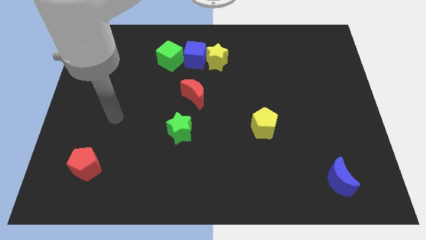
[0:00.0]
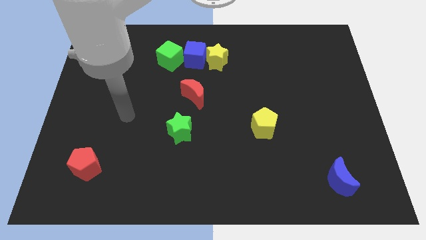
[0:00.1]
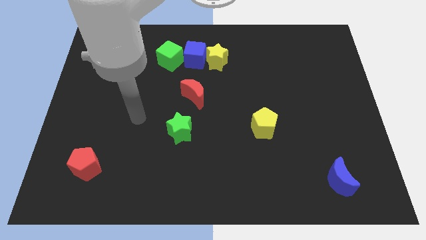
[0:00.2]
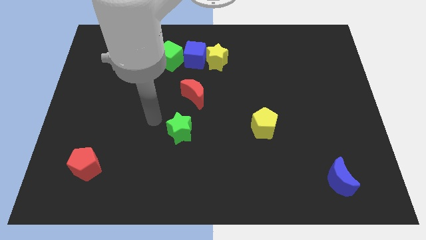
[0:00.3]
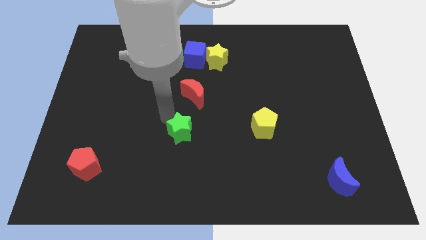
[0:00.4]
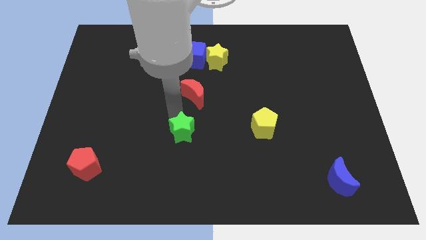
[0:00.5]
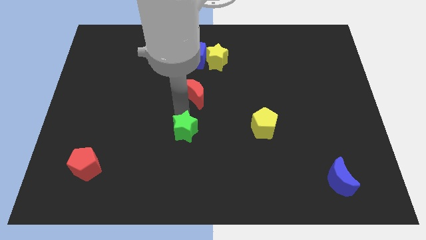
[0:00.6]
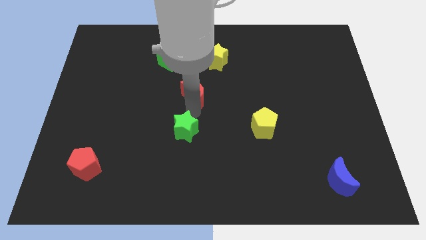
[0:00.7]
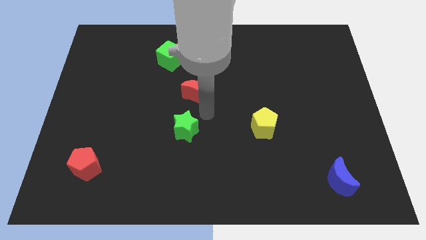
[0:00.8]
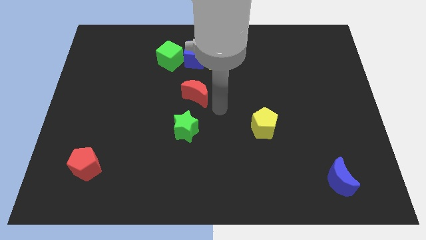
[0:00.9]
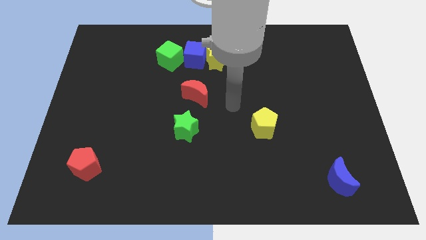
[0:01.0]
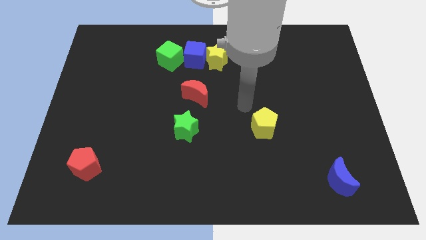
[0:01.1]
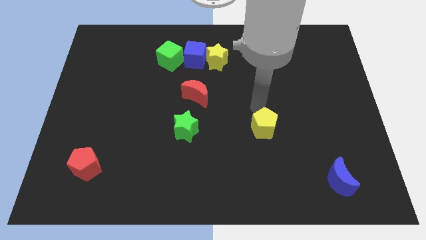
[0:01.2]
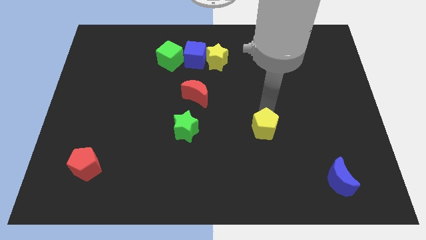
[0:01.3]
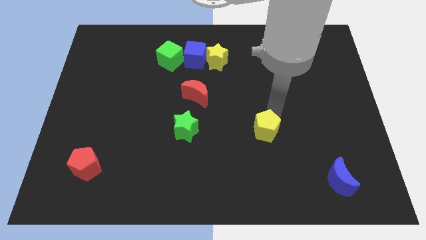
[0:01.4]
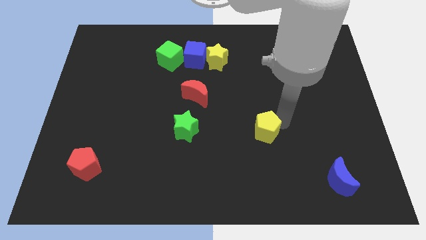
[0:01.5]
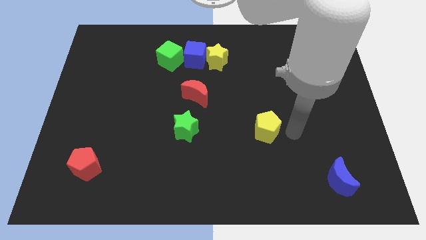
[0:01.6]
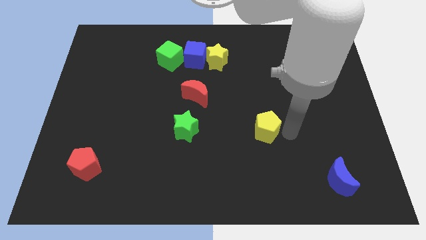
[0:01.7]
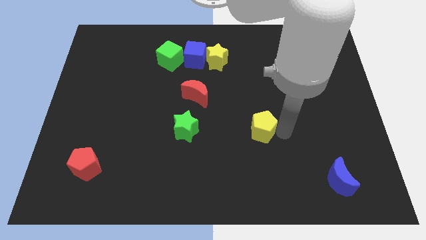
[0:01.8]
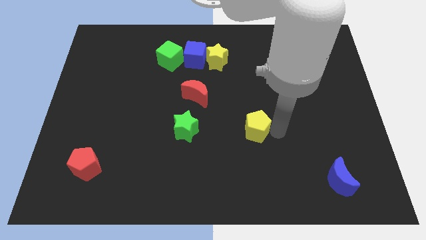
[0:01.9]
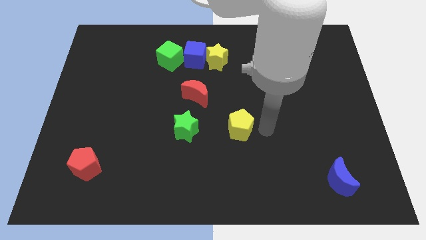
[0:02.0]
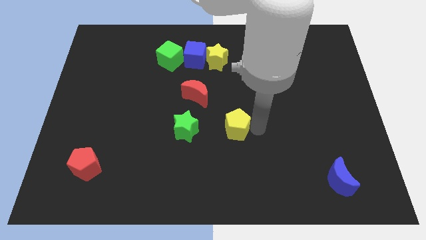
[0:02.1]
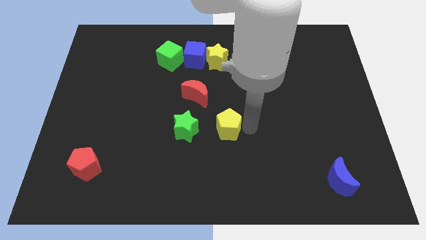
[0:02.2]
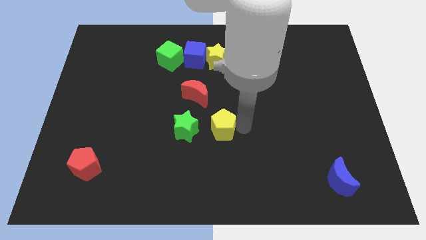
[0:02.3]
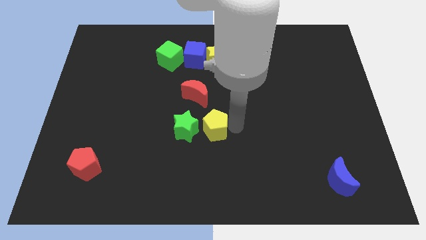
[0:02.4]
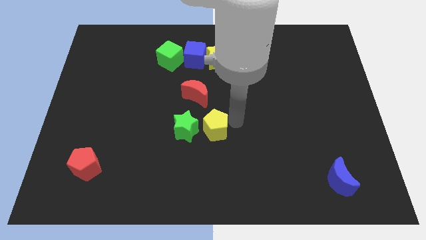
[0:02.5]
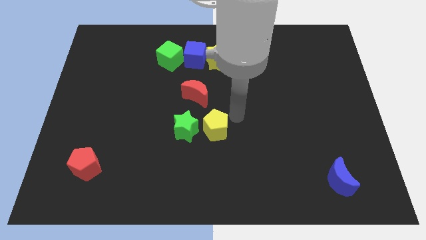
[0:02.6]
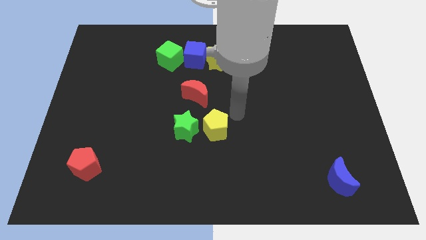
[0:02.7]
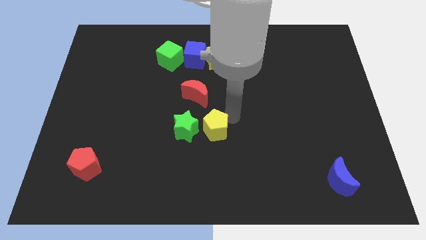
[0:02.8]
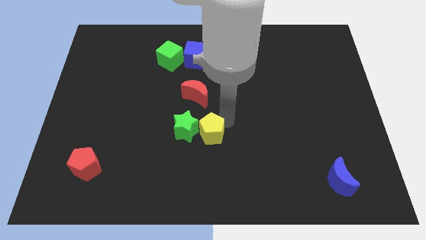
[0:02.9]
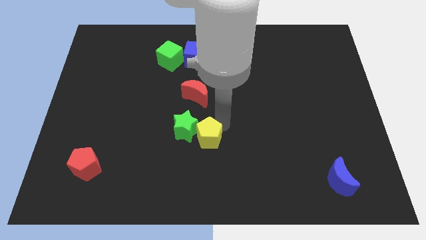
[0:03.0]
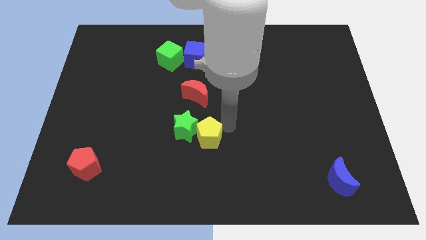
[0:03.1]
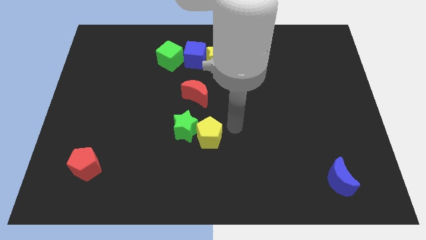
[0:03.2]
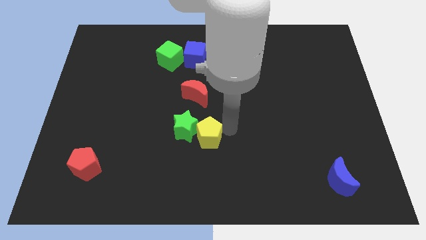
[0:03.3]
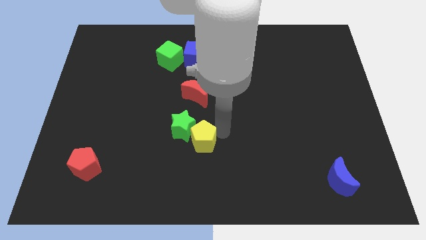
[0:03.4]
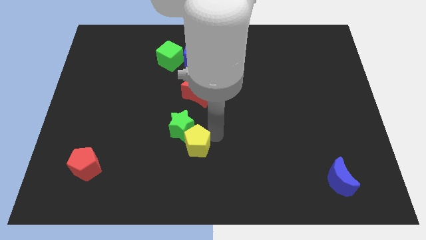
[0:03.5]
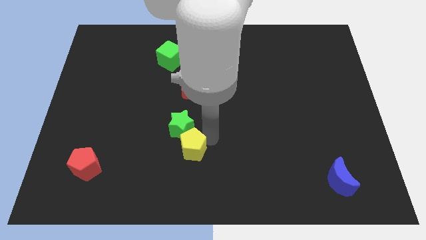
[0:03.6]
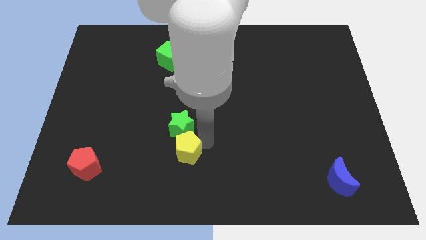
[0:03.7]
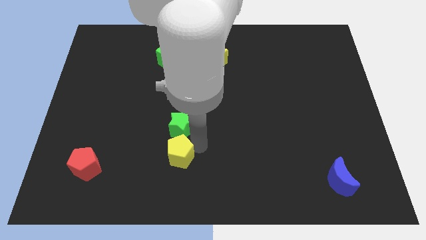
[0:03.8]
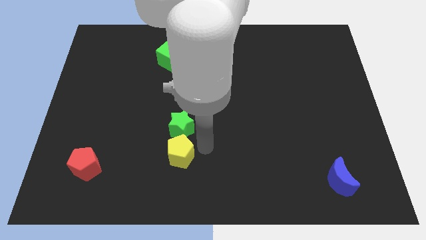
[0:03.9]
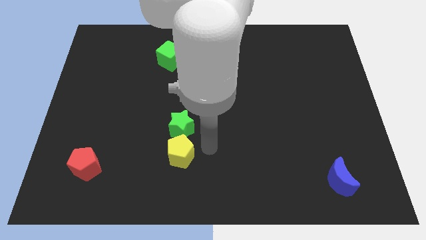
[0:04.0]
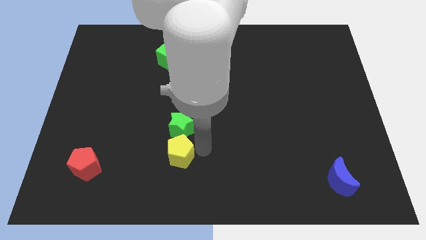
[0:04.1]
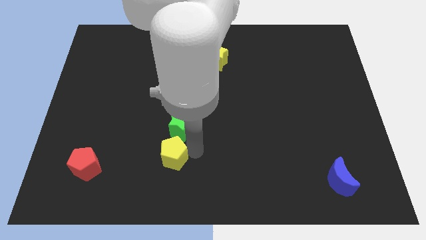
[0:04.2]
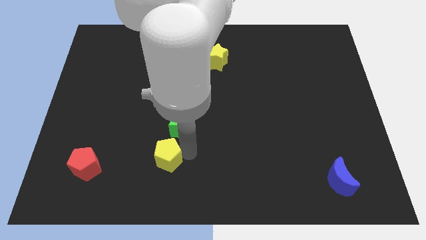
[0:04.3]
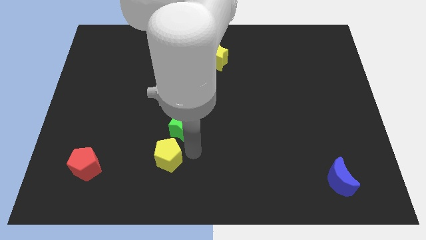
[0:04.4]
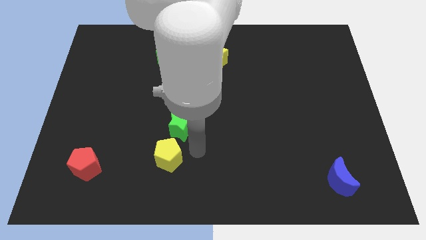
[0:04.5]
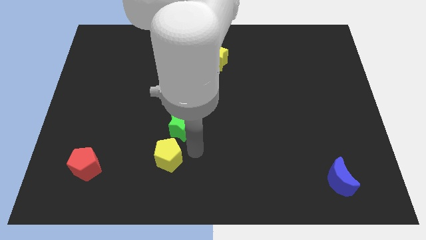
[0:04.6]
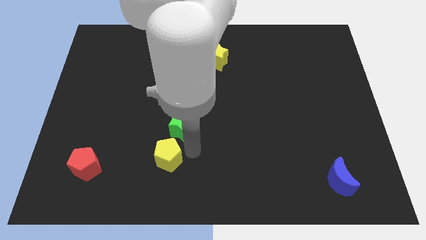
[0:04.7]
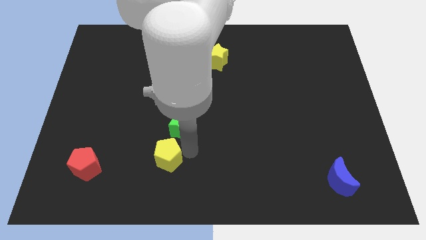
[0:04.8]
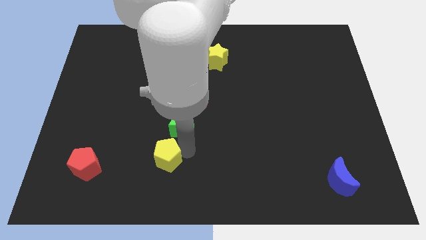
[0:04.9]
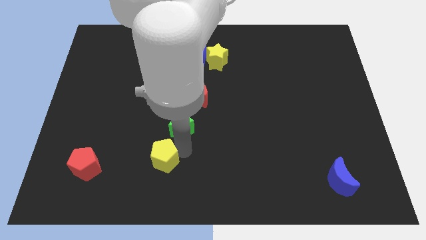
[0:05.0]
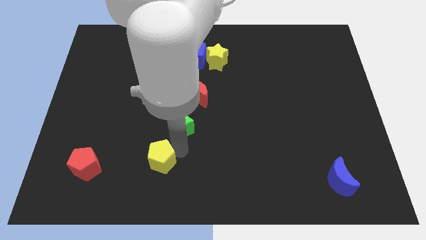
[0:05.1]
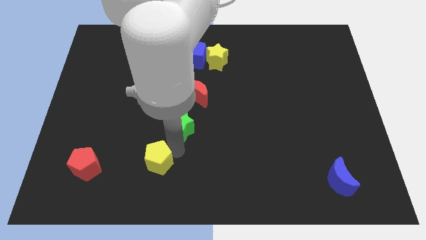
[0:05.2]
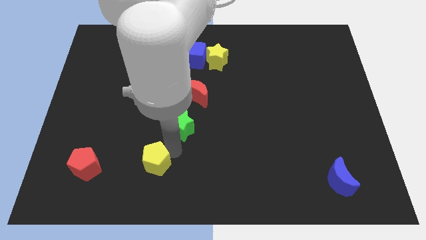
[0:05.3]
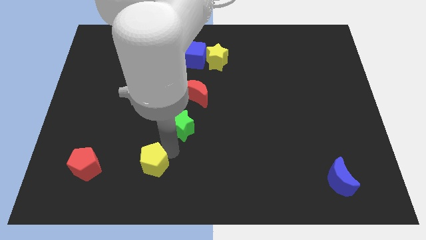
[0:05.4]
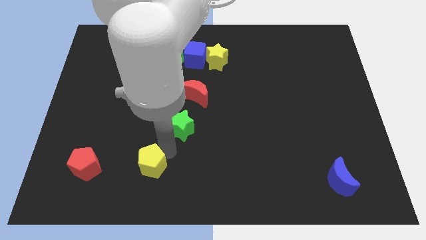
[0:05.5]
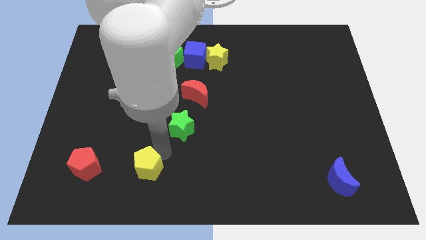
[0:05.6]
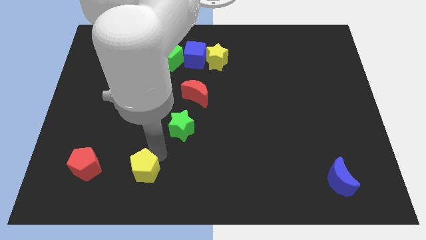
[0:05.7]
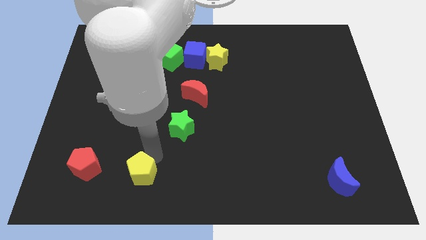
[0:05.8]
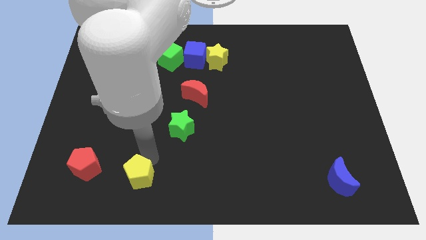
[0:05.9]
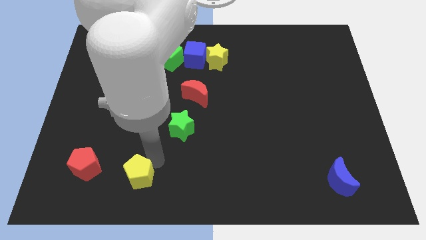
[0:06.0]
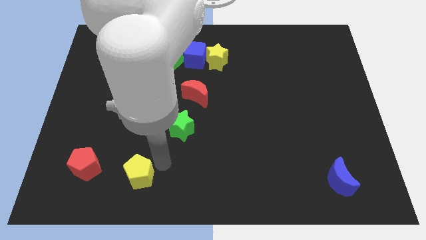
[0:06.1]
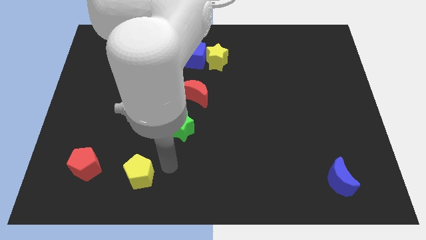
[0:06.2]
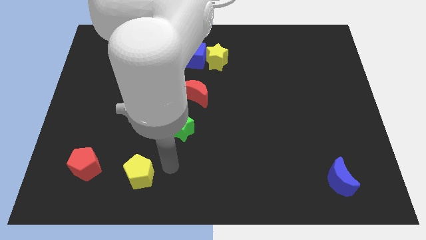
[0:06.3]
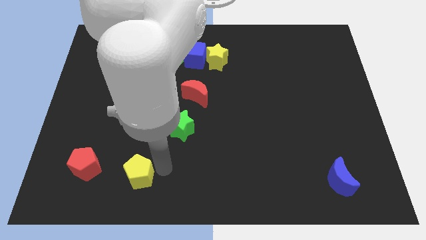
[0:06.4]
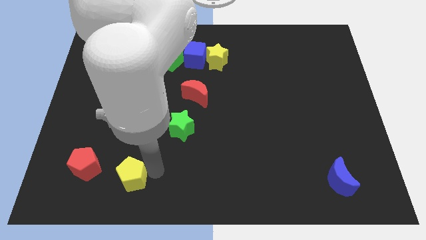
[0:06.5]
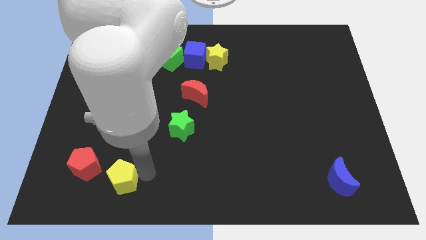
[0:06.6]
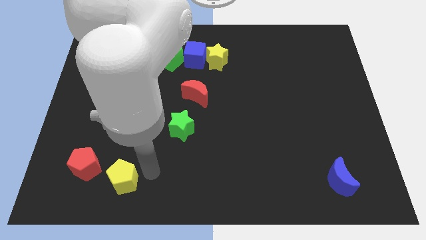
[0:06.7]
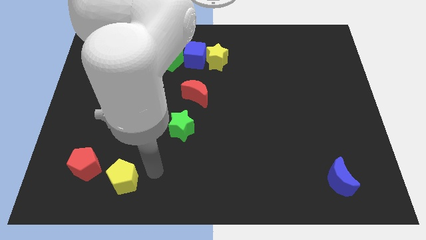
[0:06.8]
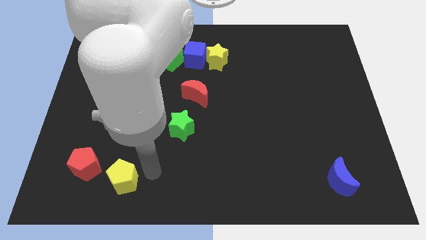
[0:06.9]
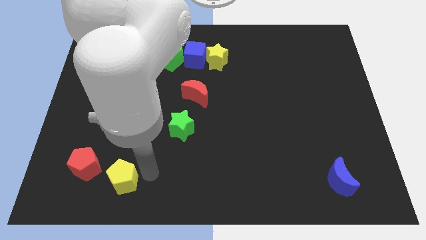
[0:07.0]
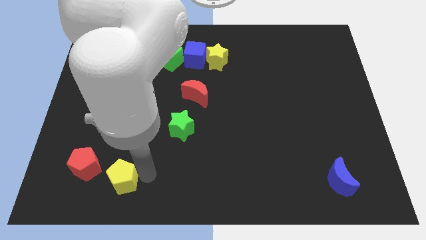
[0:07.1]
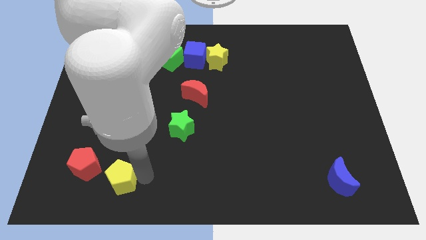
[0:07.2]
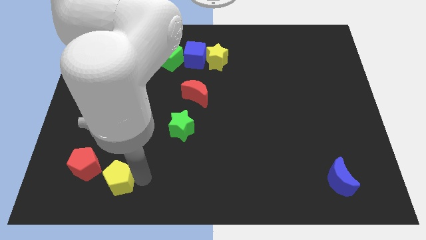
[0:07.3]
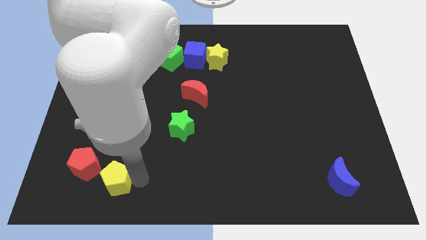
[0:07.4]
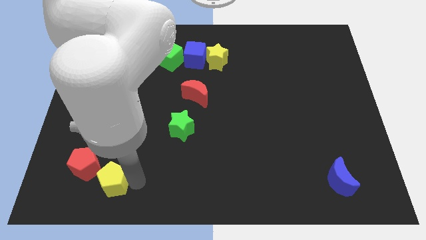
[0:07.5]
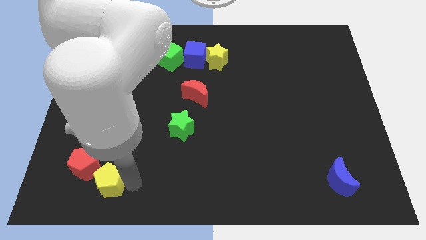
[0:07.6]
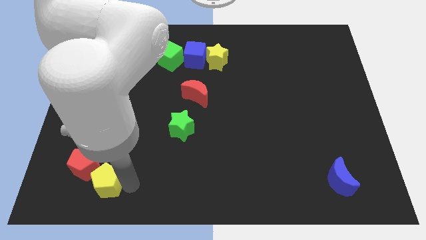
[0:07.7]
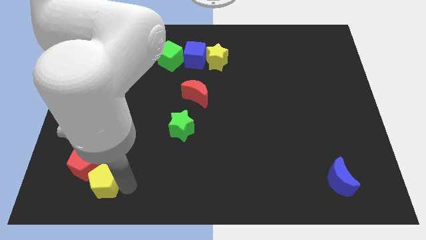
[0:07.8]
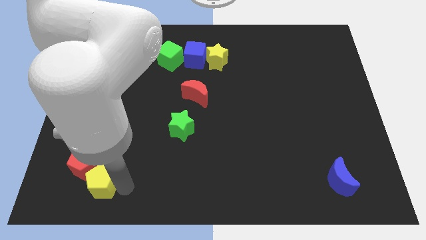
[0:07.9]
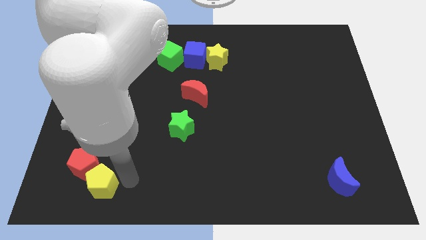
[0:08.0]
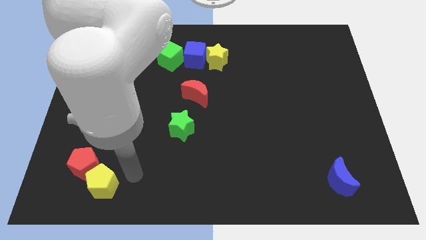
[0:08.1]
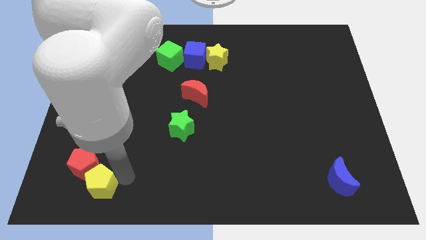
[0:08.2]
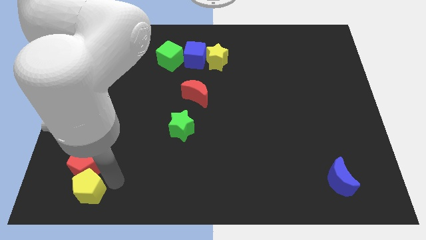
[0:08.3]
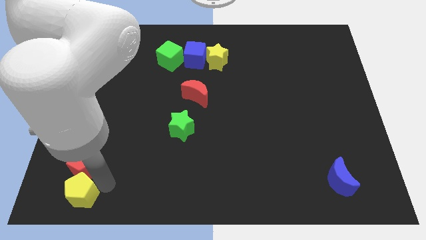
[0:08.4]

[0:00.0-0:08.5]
put the yellow pentagon to the lower left corner
